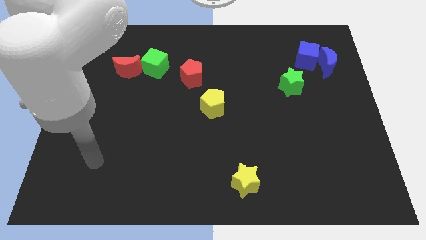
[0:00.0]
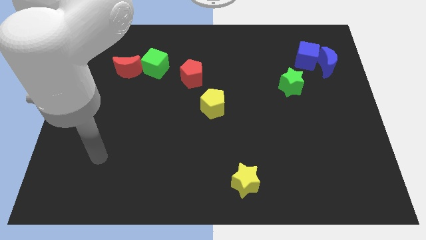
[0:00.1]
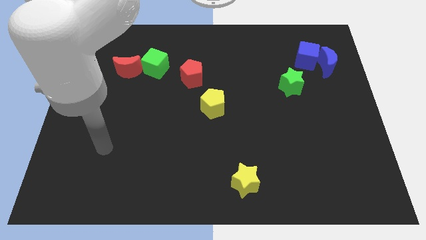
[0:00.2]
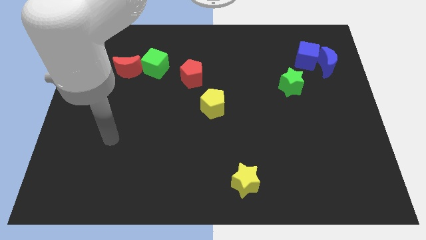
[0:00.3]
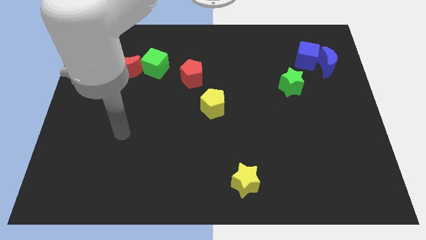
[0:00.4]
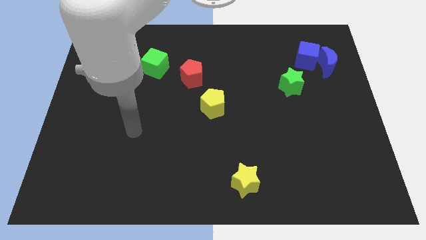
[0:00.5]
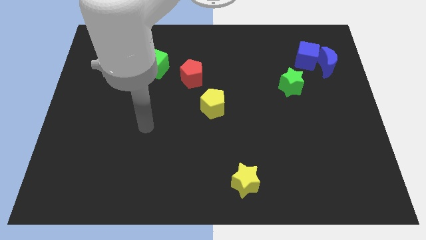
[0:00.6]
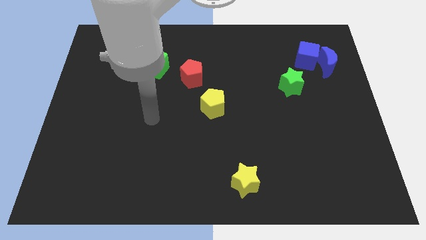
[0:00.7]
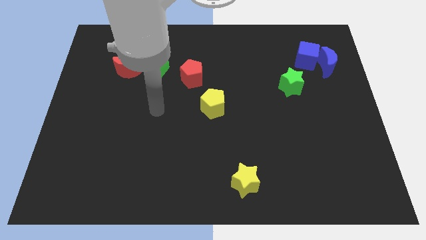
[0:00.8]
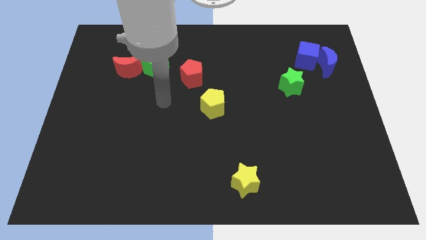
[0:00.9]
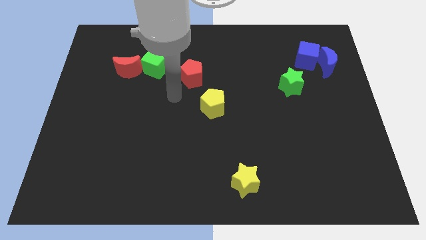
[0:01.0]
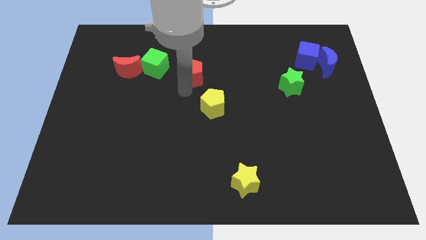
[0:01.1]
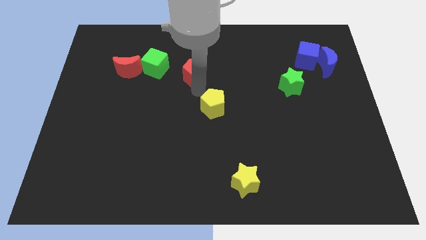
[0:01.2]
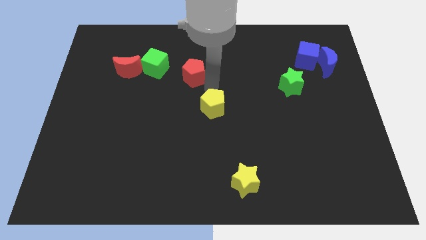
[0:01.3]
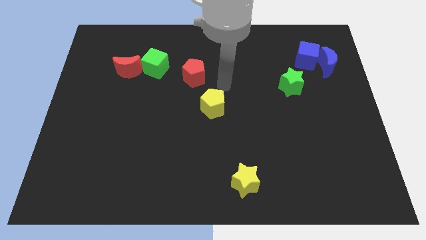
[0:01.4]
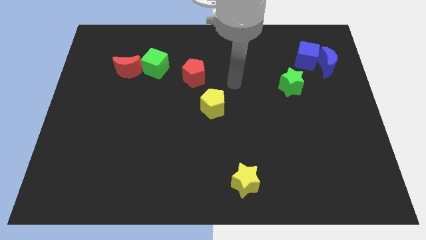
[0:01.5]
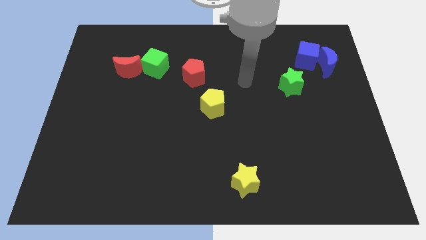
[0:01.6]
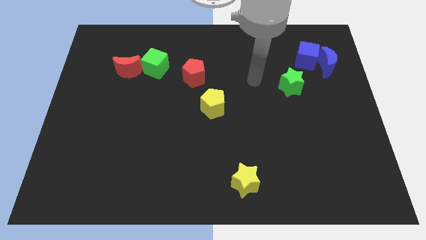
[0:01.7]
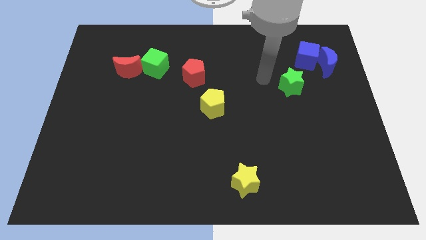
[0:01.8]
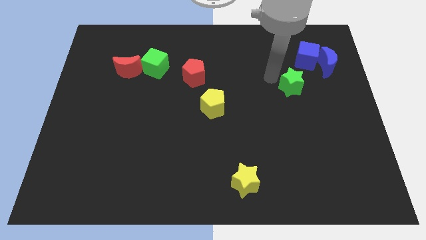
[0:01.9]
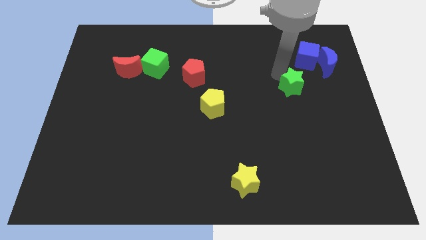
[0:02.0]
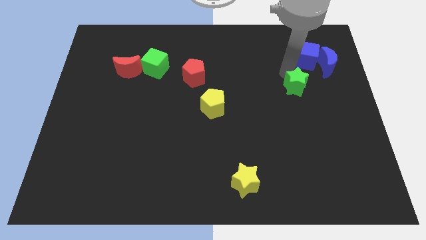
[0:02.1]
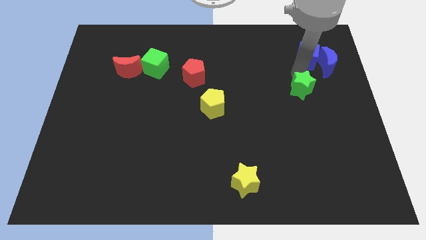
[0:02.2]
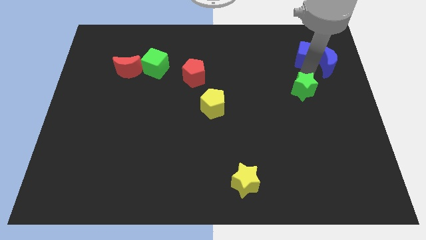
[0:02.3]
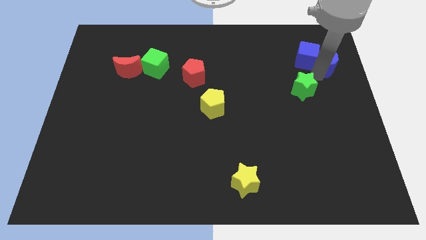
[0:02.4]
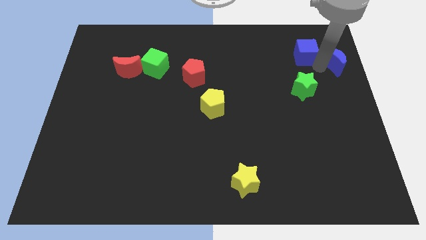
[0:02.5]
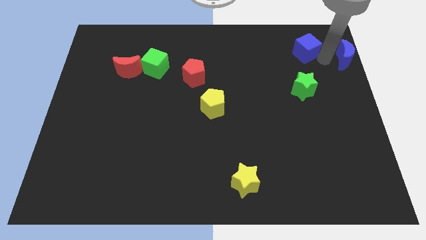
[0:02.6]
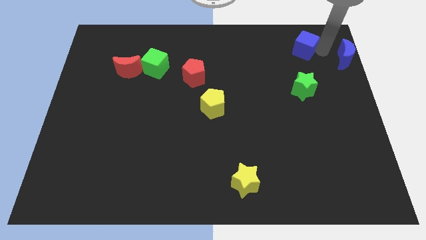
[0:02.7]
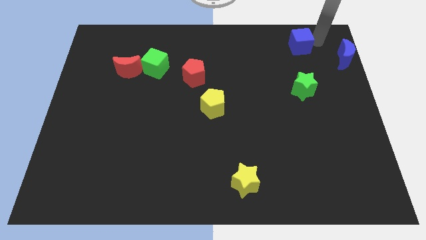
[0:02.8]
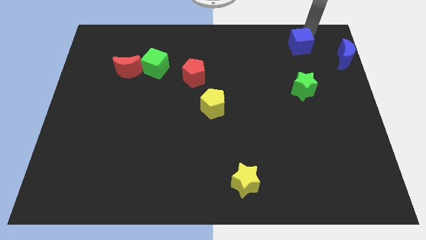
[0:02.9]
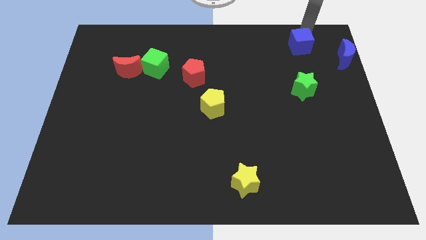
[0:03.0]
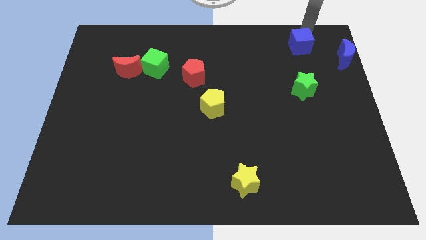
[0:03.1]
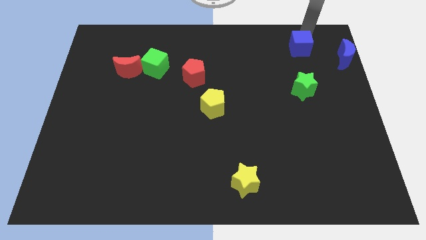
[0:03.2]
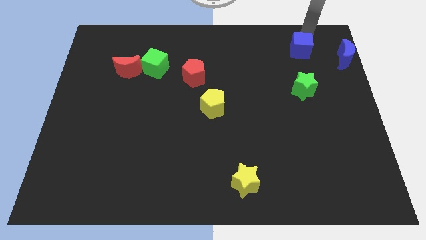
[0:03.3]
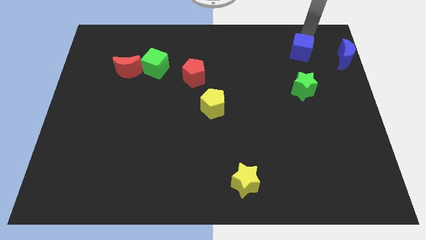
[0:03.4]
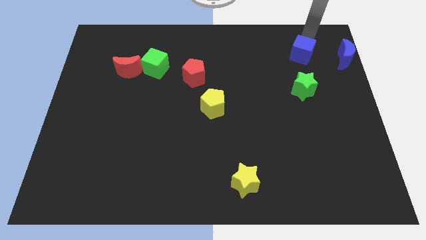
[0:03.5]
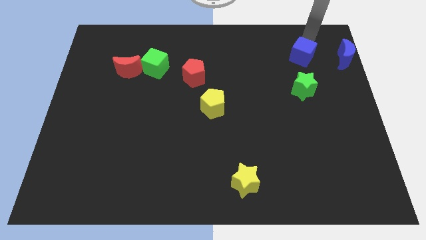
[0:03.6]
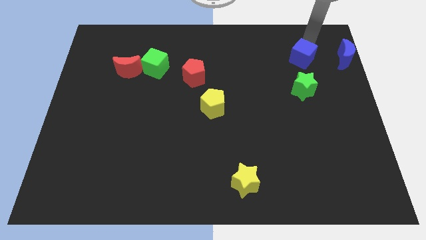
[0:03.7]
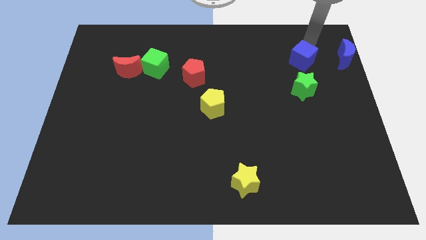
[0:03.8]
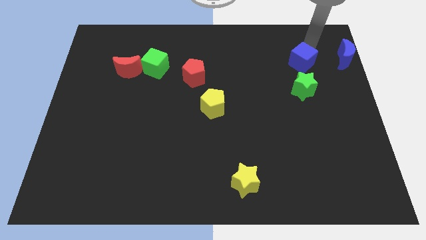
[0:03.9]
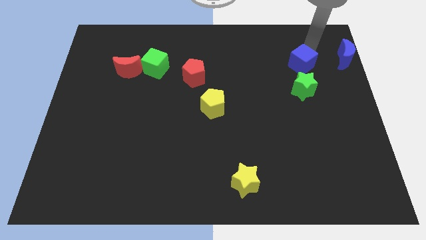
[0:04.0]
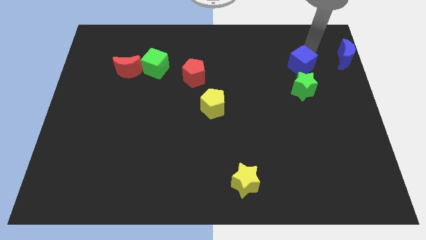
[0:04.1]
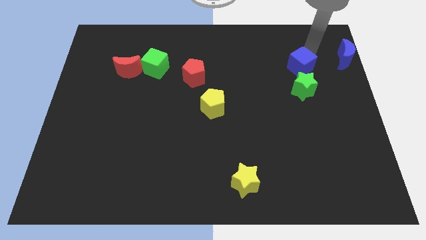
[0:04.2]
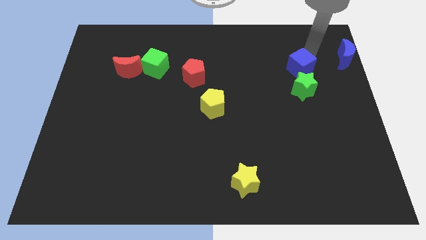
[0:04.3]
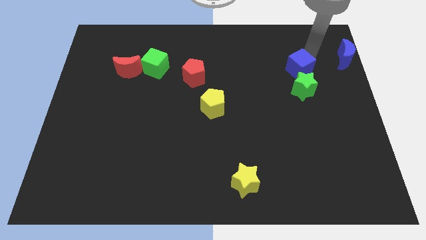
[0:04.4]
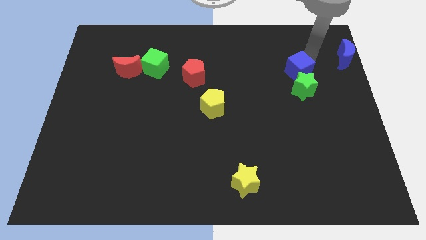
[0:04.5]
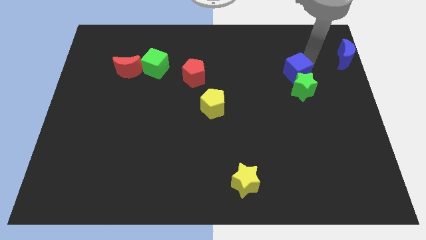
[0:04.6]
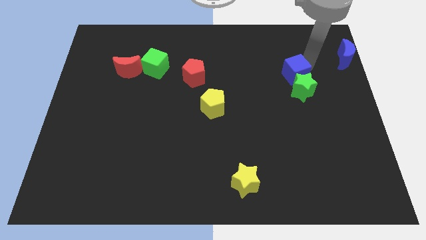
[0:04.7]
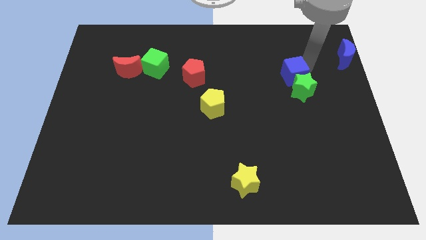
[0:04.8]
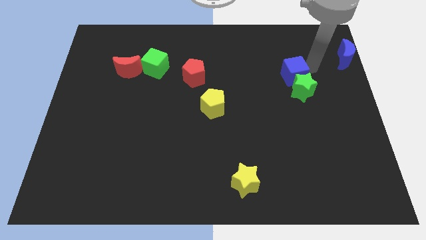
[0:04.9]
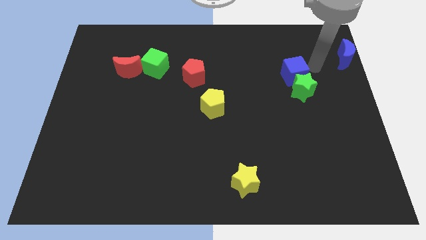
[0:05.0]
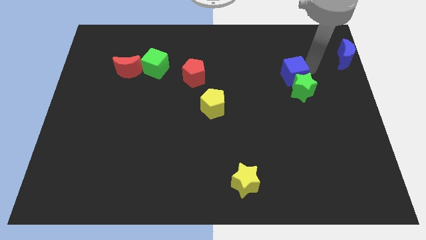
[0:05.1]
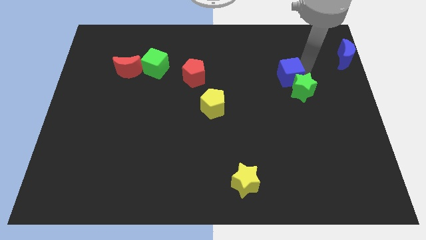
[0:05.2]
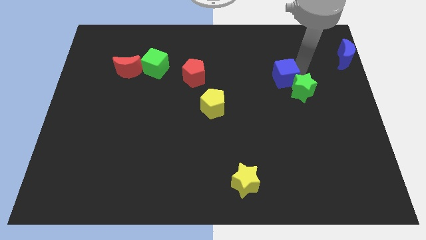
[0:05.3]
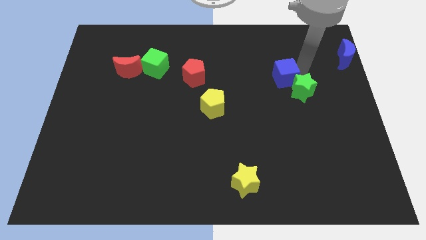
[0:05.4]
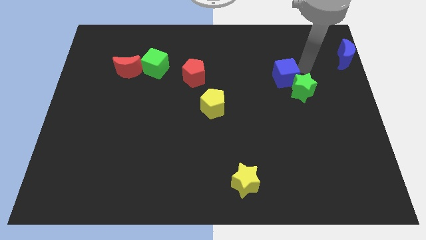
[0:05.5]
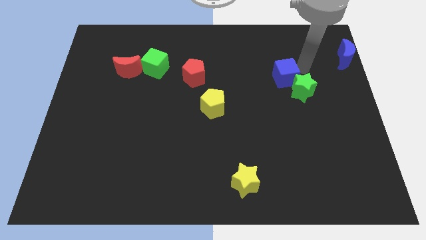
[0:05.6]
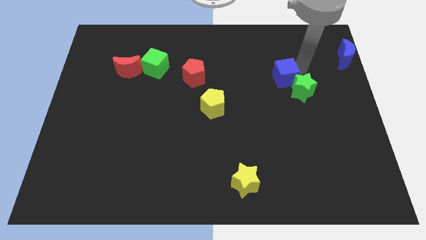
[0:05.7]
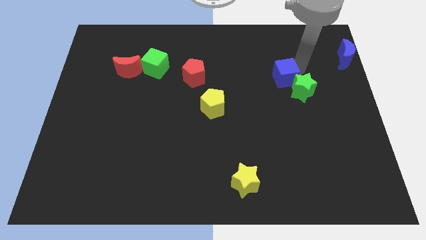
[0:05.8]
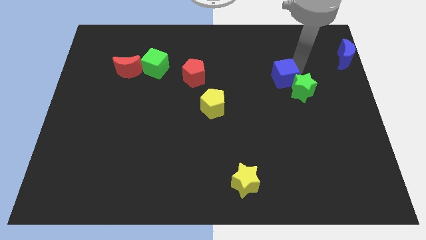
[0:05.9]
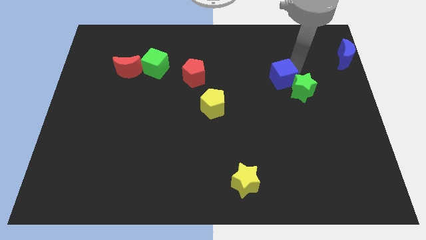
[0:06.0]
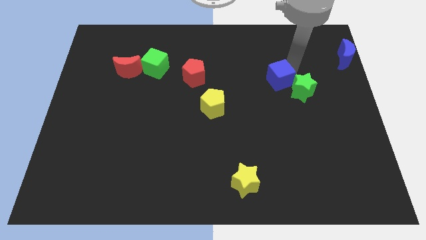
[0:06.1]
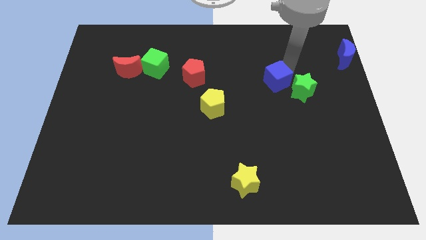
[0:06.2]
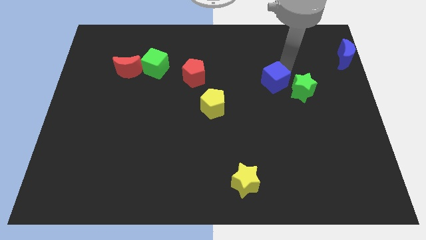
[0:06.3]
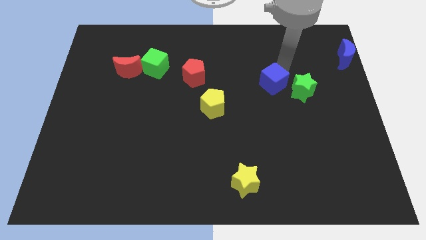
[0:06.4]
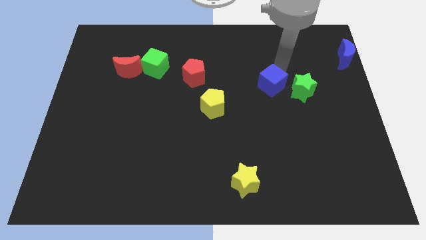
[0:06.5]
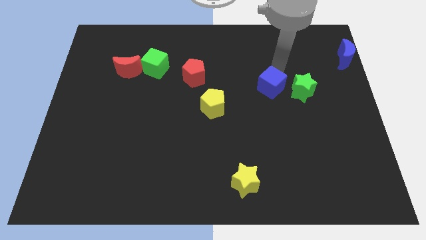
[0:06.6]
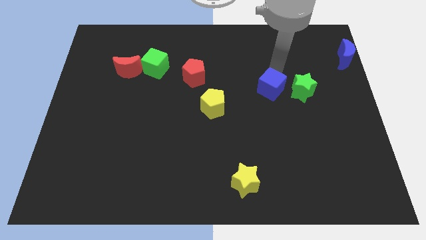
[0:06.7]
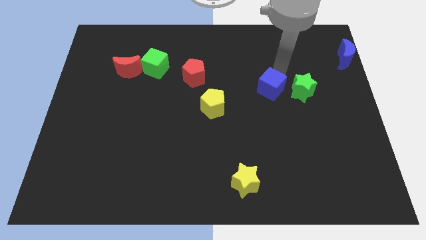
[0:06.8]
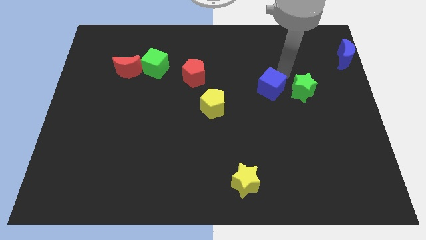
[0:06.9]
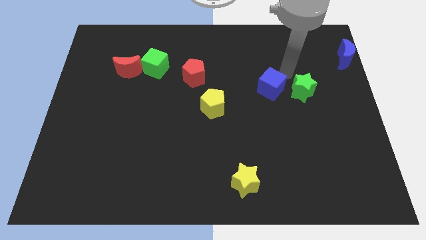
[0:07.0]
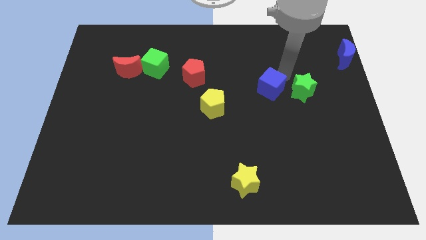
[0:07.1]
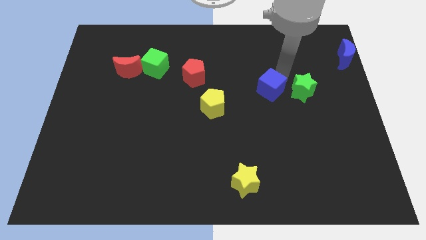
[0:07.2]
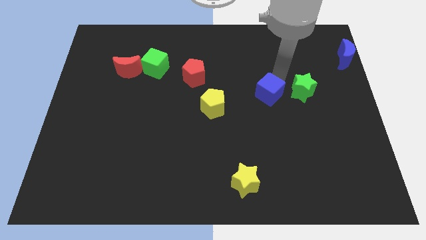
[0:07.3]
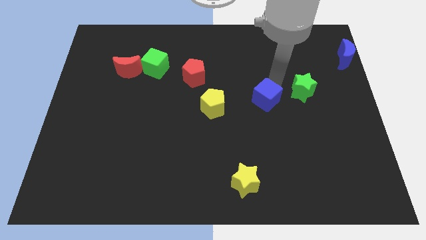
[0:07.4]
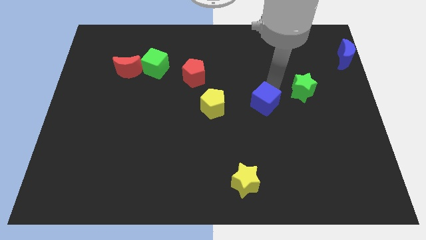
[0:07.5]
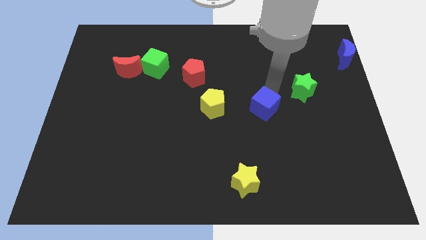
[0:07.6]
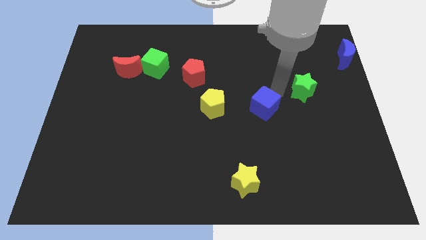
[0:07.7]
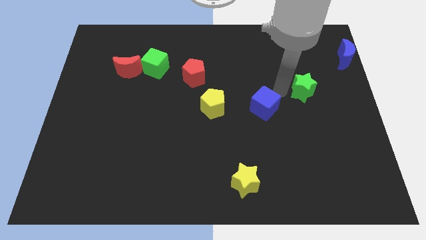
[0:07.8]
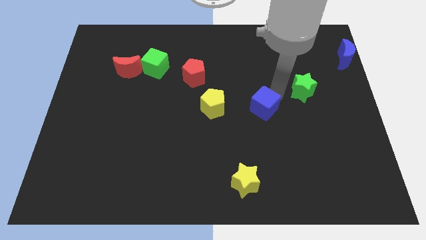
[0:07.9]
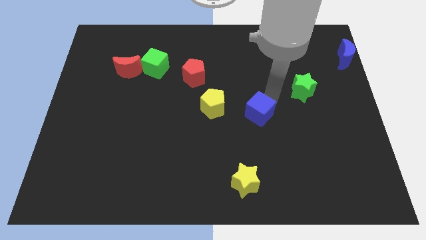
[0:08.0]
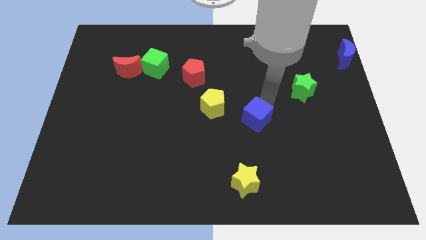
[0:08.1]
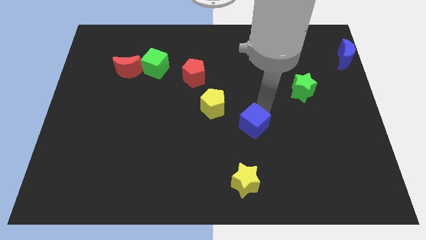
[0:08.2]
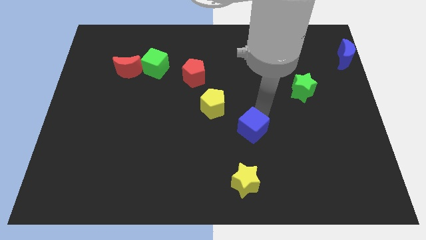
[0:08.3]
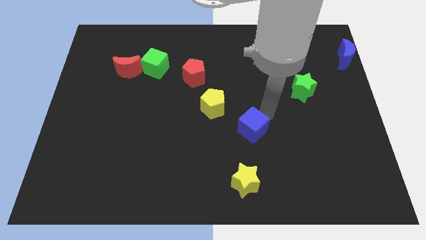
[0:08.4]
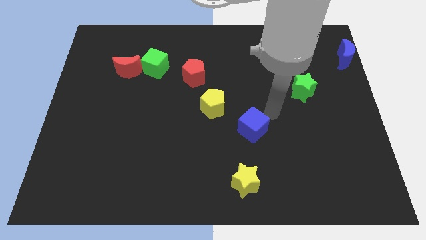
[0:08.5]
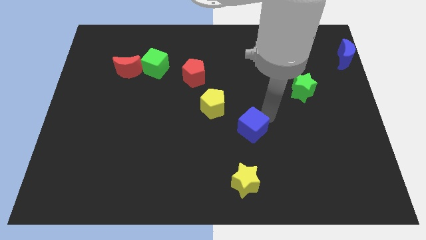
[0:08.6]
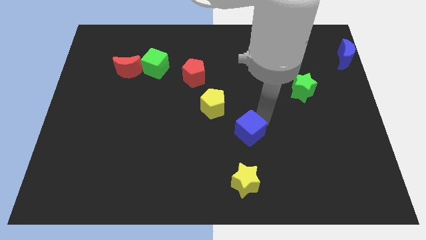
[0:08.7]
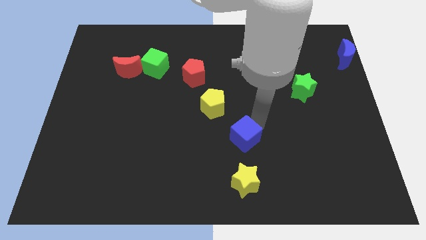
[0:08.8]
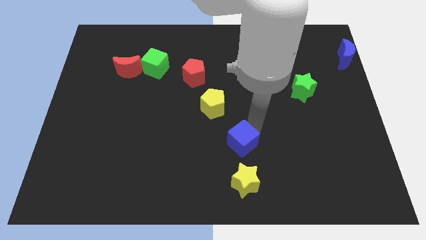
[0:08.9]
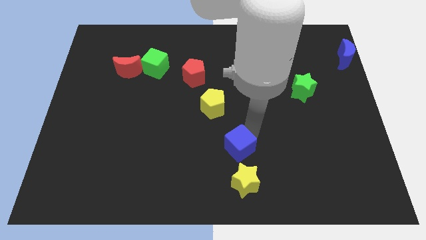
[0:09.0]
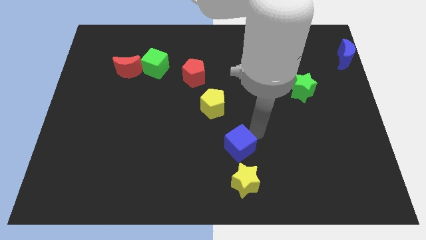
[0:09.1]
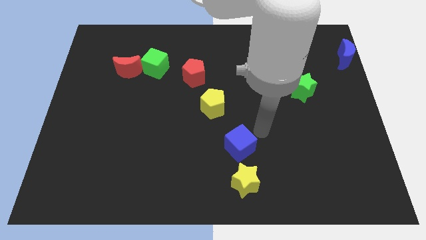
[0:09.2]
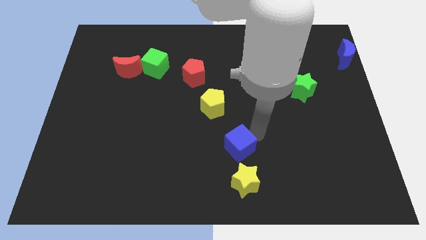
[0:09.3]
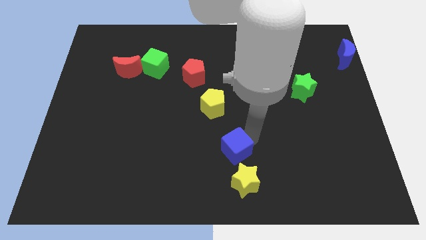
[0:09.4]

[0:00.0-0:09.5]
push the blue cube to the top left of the yellow star
